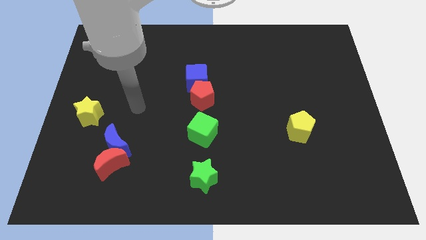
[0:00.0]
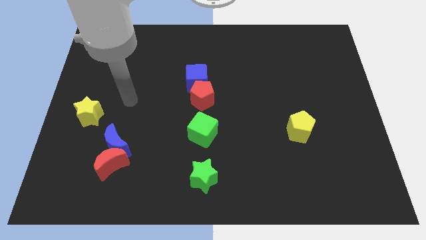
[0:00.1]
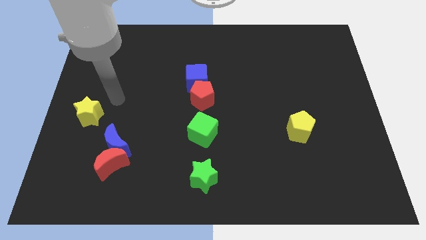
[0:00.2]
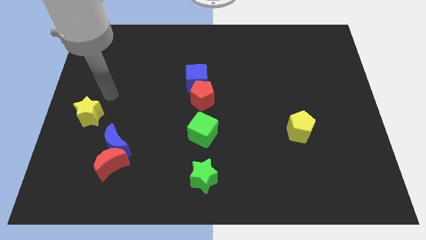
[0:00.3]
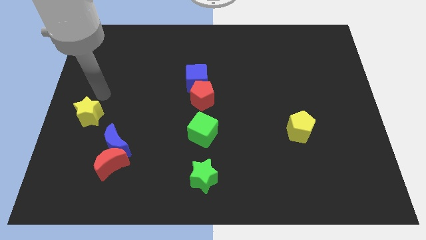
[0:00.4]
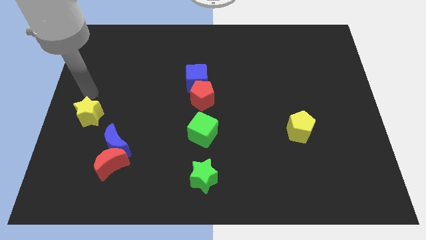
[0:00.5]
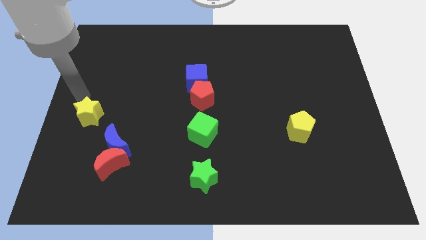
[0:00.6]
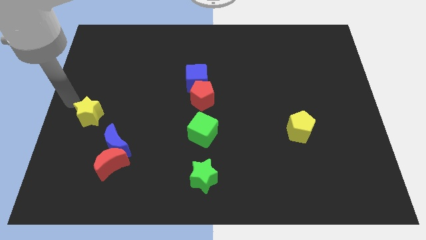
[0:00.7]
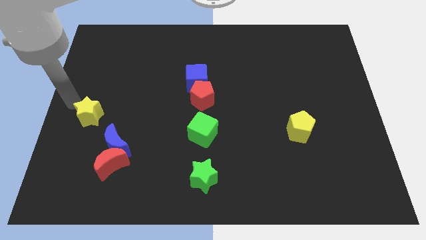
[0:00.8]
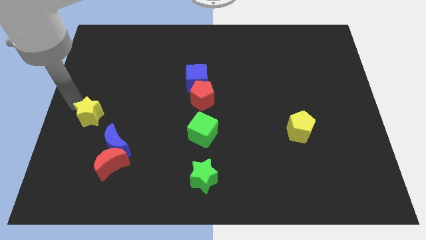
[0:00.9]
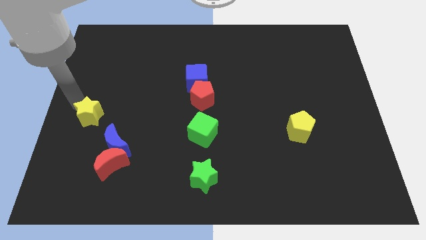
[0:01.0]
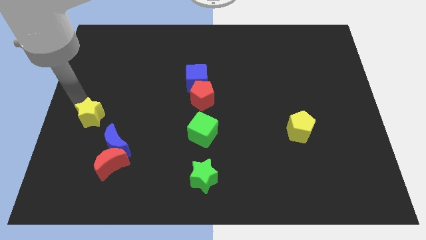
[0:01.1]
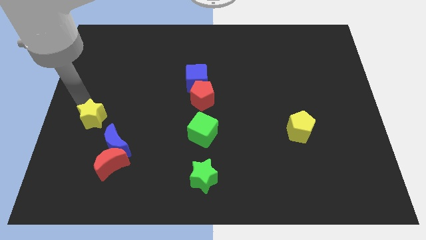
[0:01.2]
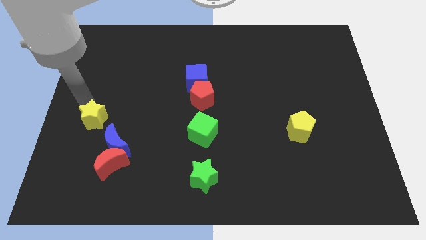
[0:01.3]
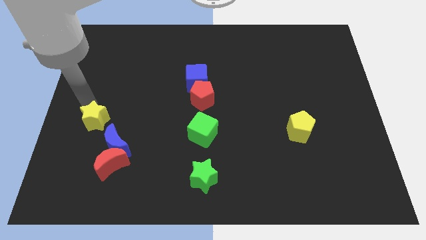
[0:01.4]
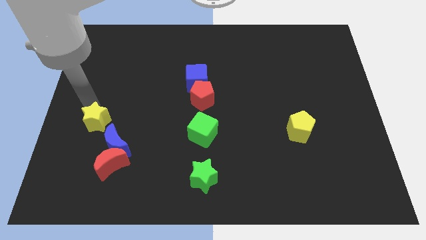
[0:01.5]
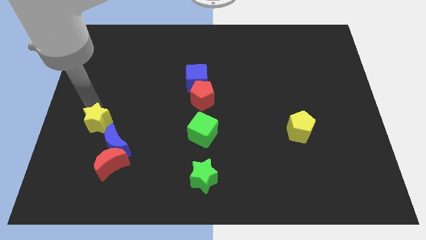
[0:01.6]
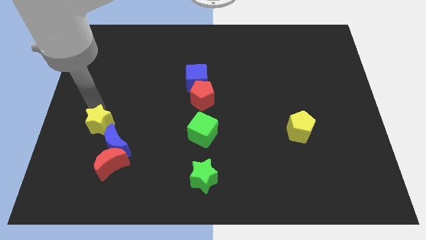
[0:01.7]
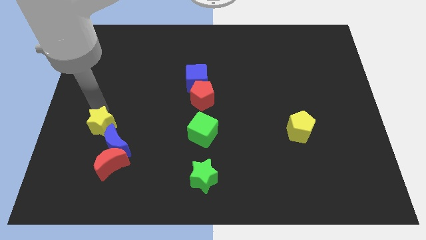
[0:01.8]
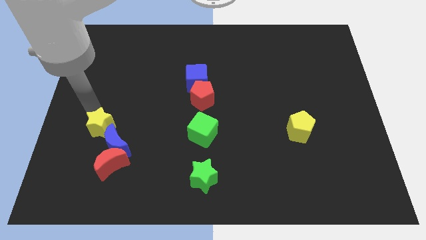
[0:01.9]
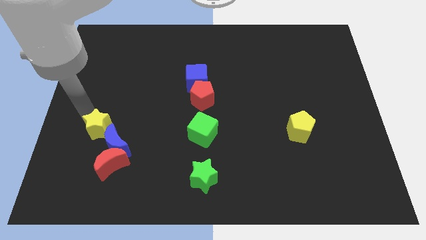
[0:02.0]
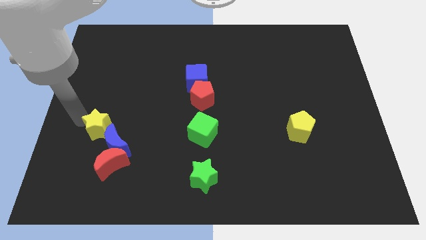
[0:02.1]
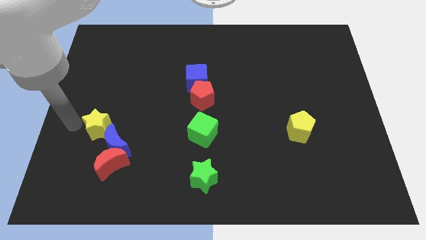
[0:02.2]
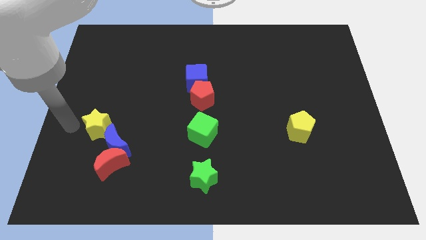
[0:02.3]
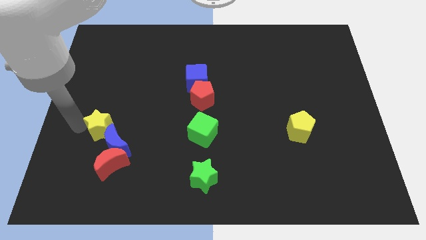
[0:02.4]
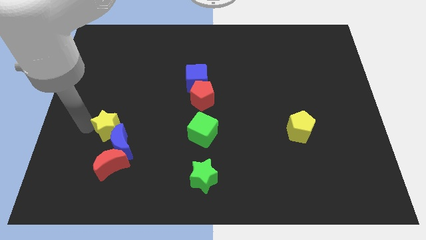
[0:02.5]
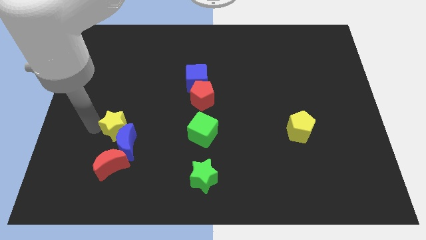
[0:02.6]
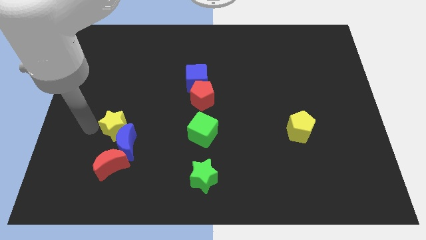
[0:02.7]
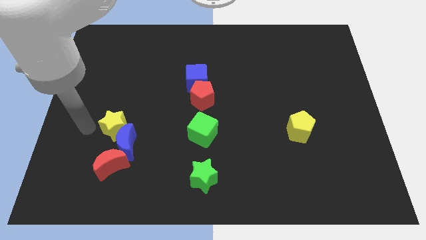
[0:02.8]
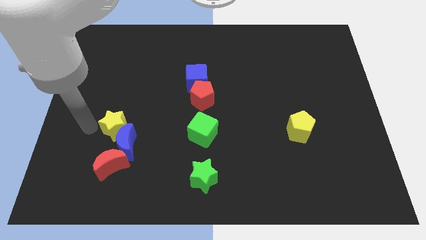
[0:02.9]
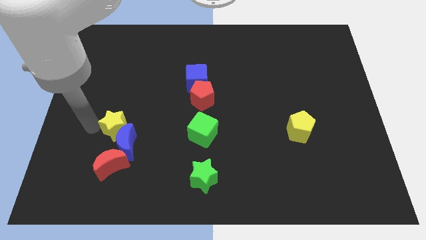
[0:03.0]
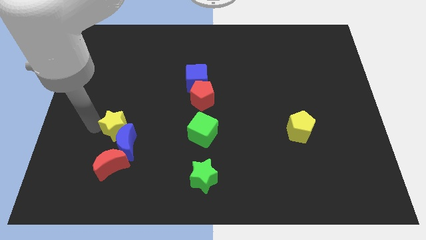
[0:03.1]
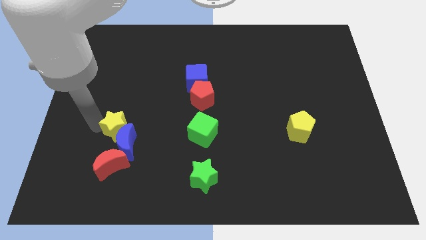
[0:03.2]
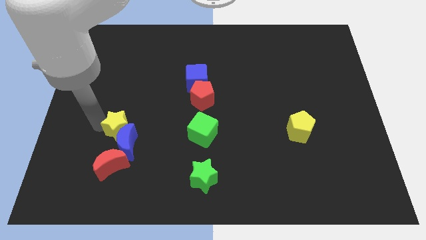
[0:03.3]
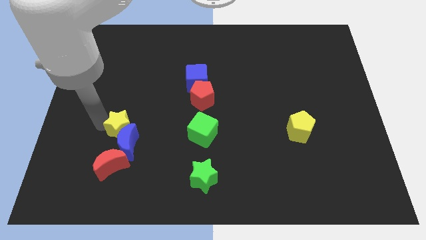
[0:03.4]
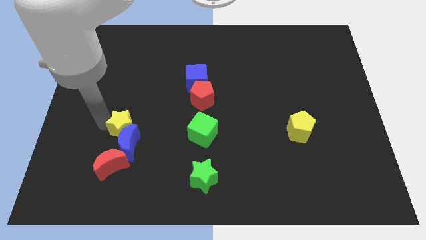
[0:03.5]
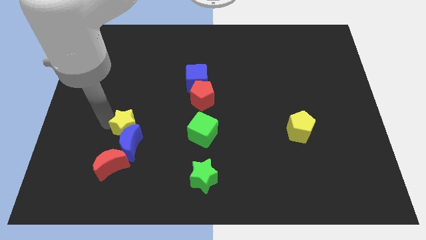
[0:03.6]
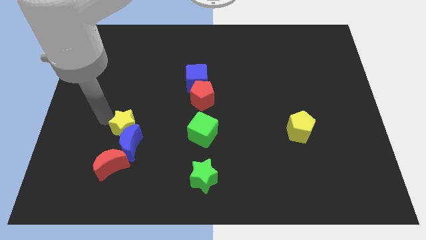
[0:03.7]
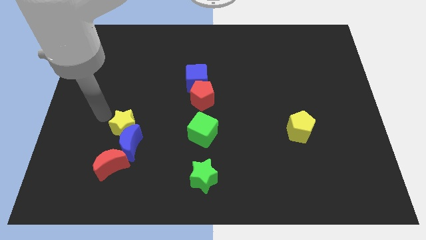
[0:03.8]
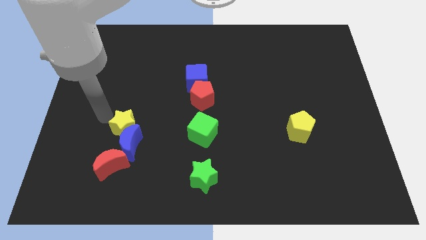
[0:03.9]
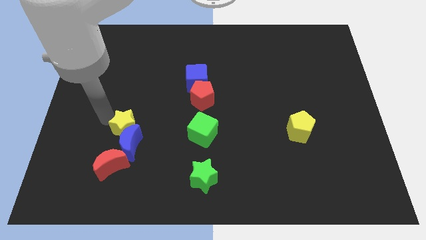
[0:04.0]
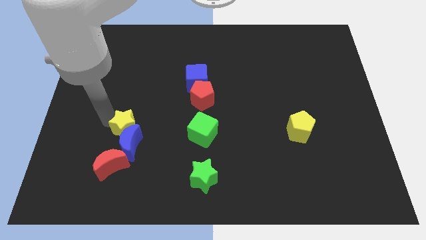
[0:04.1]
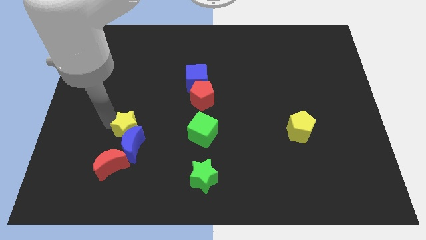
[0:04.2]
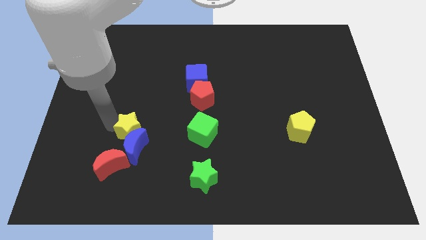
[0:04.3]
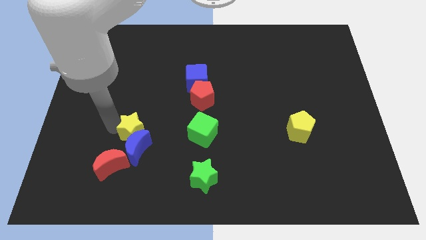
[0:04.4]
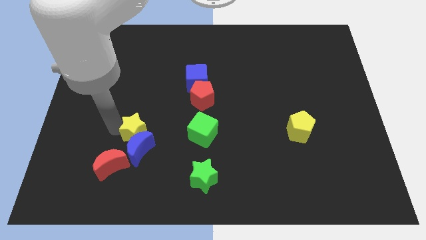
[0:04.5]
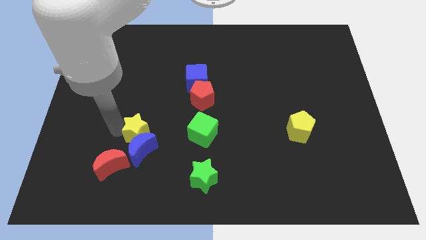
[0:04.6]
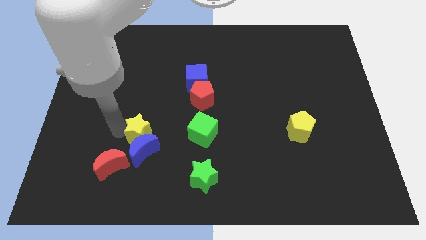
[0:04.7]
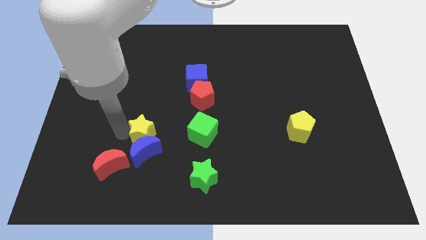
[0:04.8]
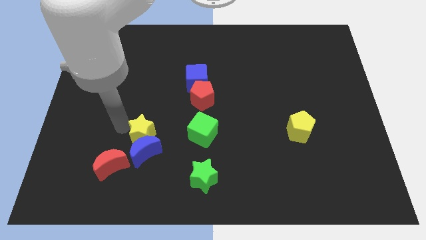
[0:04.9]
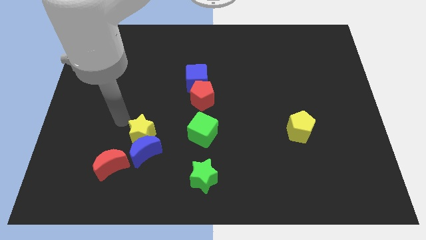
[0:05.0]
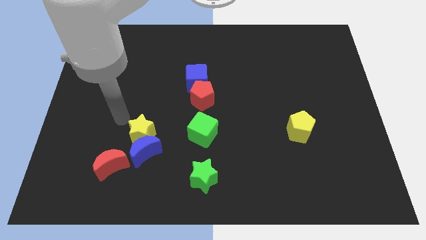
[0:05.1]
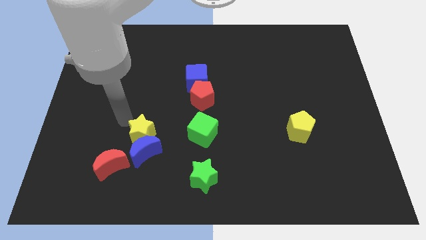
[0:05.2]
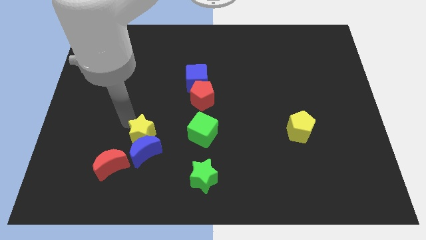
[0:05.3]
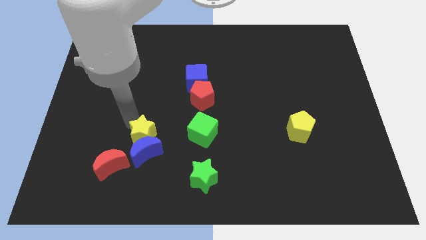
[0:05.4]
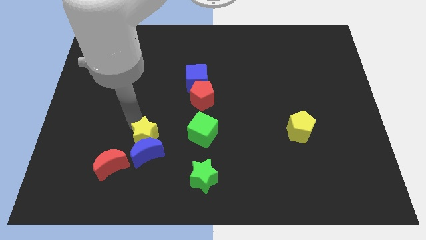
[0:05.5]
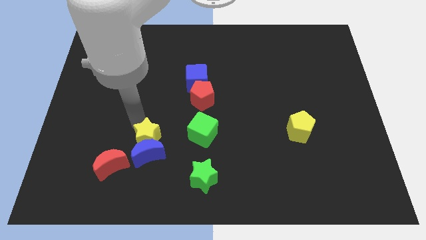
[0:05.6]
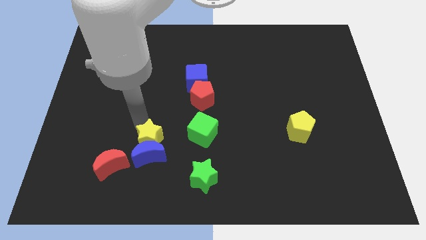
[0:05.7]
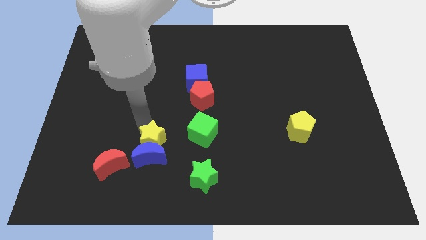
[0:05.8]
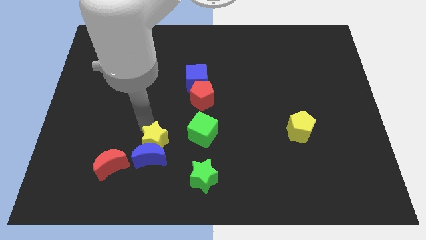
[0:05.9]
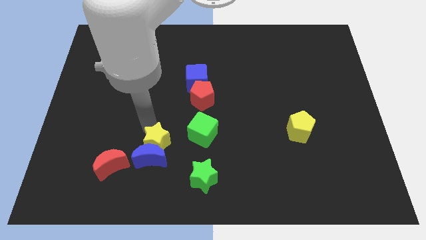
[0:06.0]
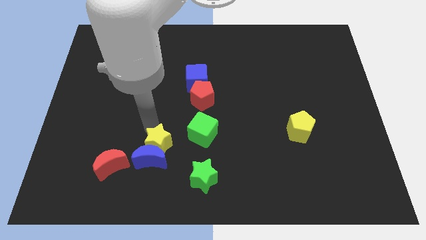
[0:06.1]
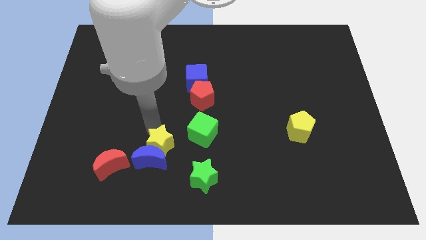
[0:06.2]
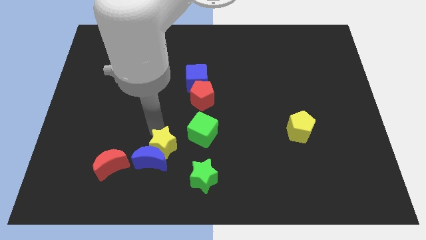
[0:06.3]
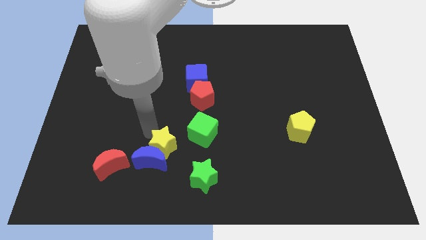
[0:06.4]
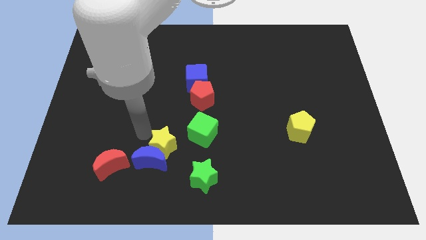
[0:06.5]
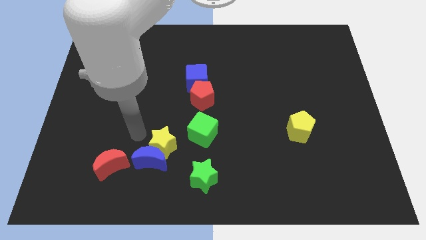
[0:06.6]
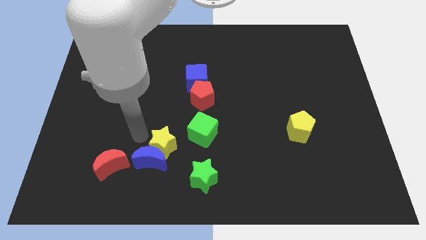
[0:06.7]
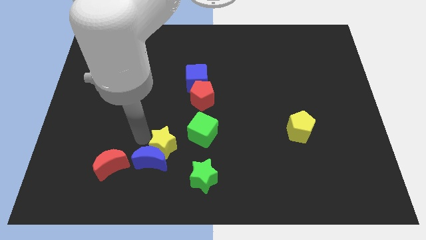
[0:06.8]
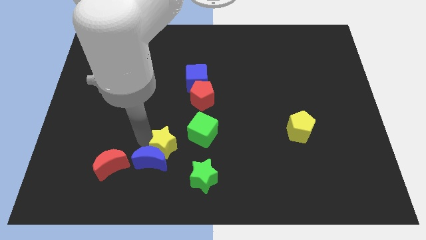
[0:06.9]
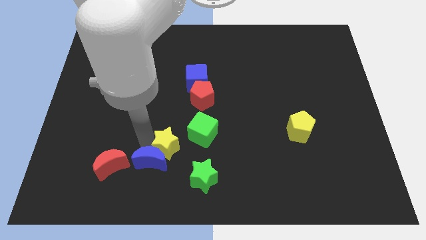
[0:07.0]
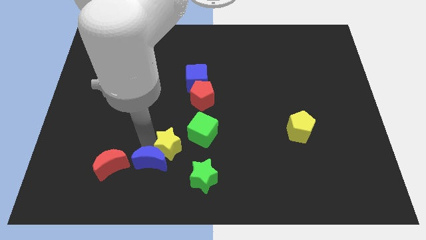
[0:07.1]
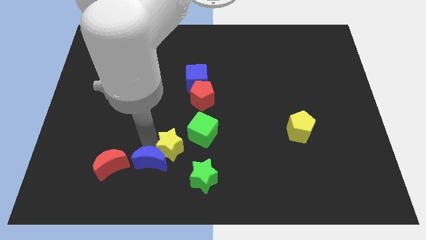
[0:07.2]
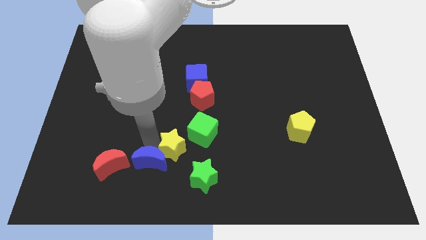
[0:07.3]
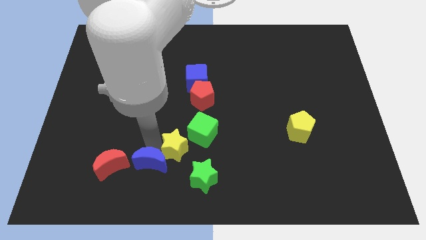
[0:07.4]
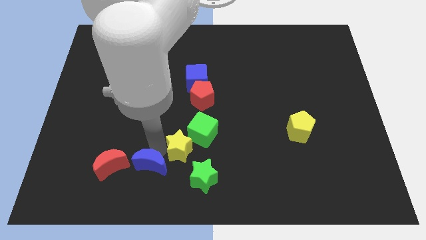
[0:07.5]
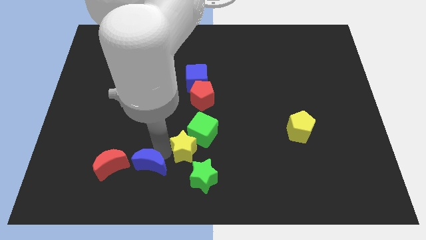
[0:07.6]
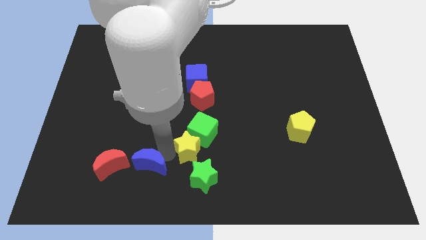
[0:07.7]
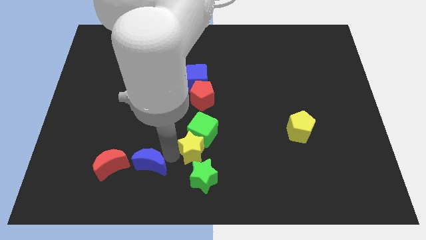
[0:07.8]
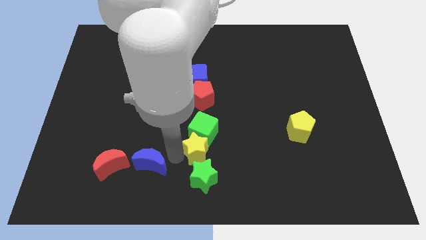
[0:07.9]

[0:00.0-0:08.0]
put the yellow star to the bottom right of the green cube
